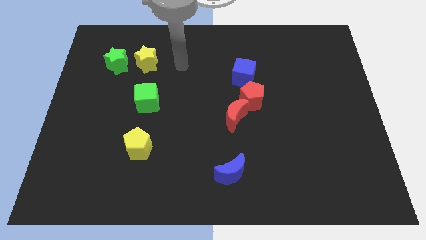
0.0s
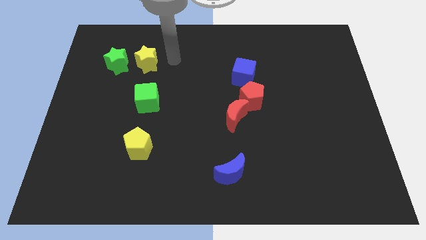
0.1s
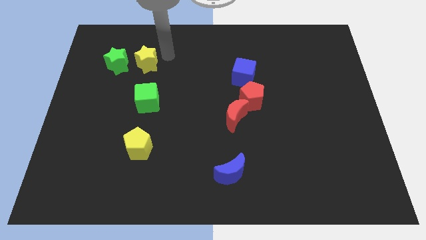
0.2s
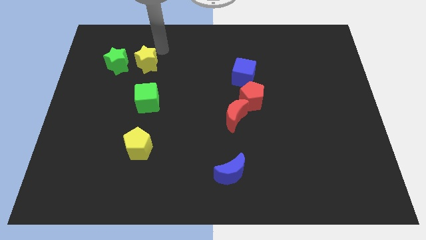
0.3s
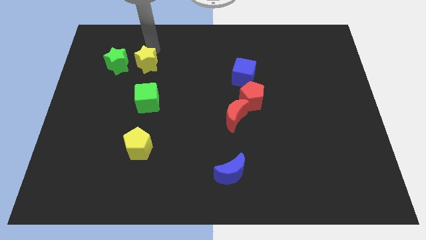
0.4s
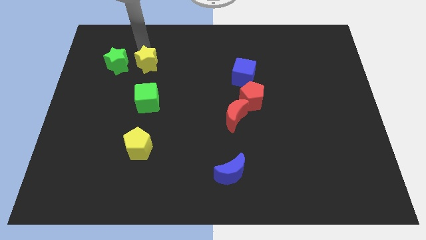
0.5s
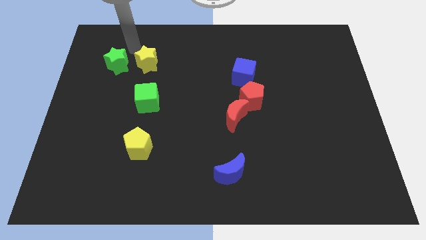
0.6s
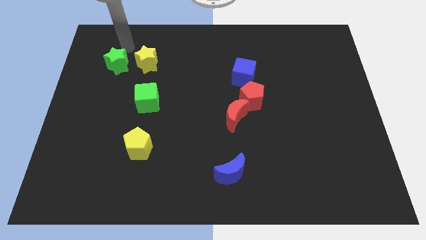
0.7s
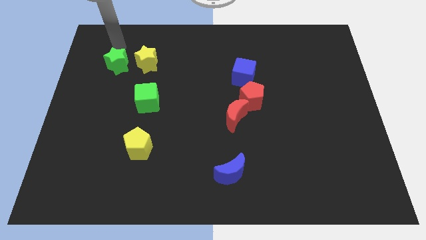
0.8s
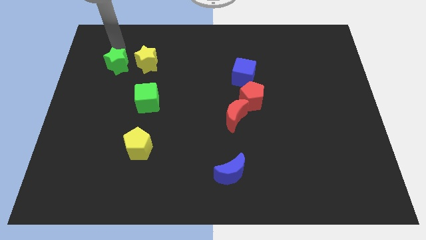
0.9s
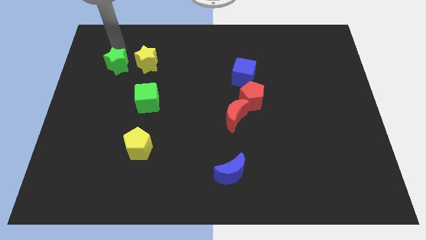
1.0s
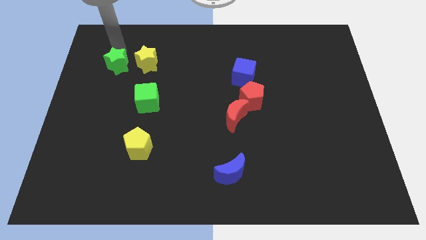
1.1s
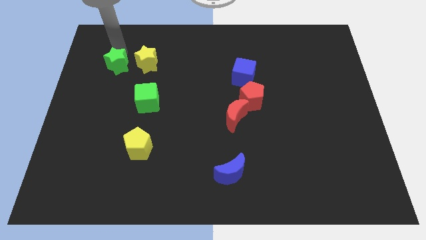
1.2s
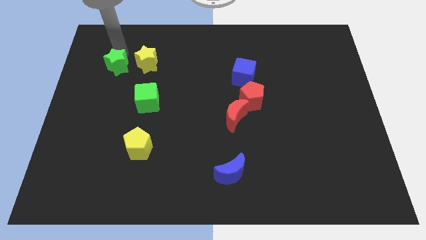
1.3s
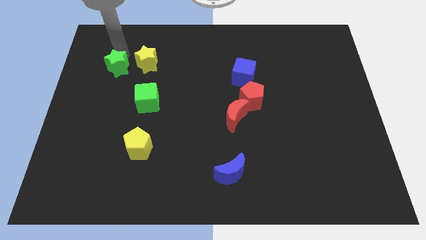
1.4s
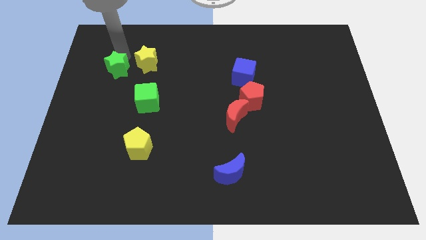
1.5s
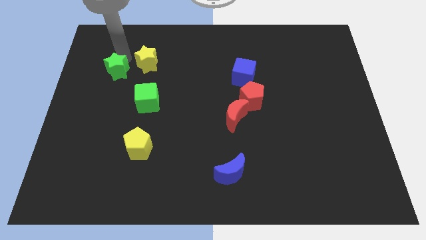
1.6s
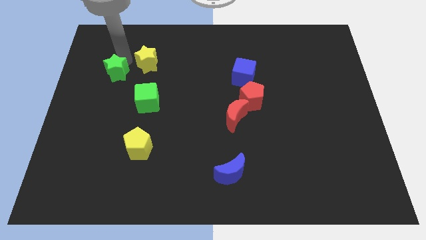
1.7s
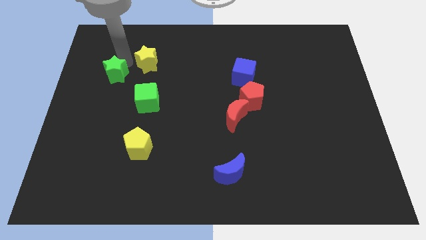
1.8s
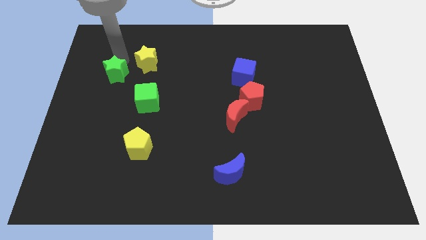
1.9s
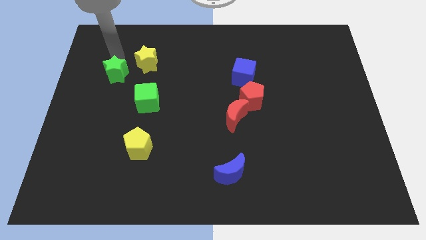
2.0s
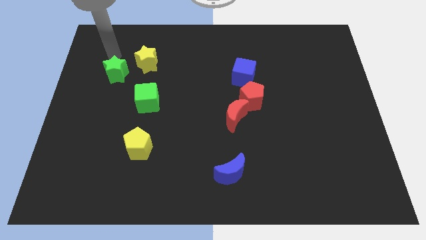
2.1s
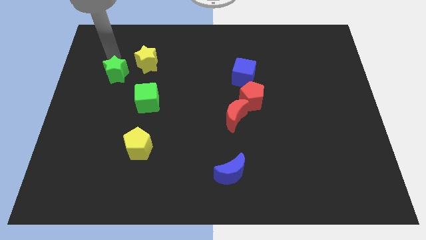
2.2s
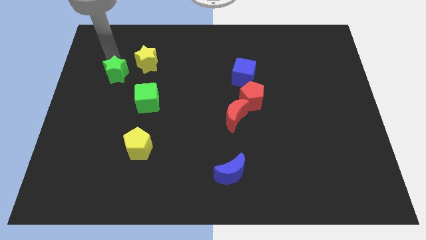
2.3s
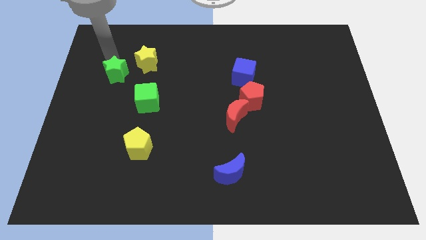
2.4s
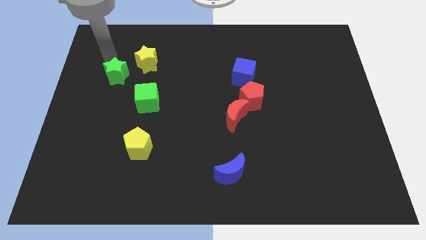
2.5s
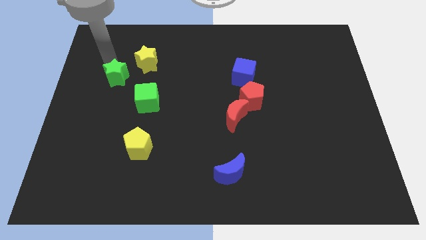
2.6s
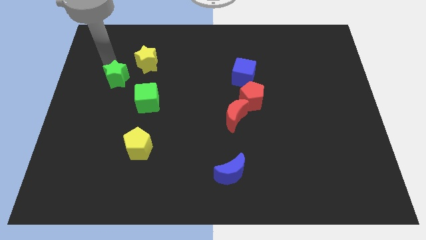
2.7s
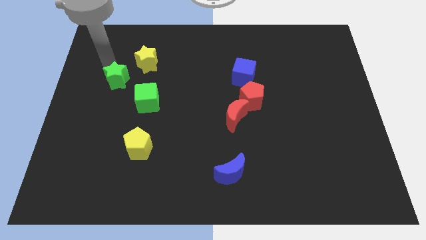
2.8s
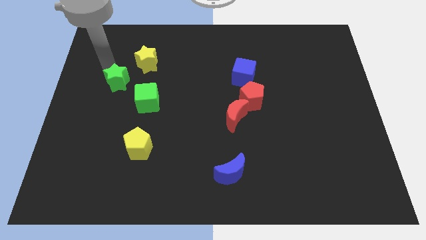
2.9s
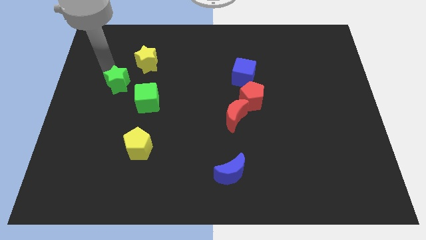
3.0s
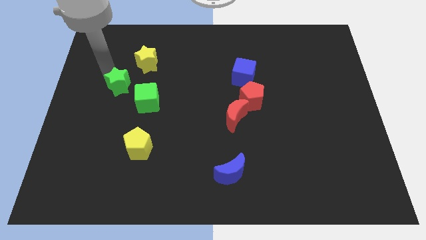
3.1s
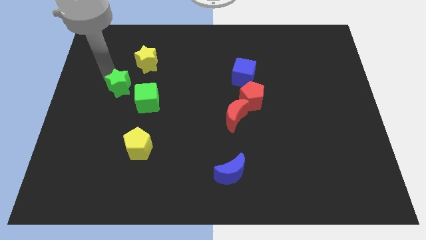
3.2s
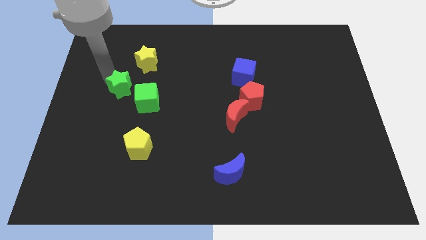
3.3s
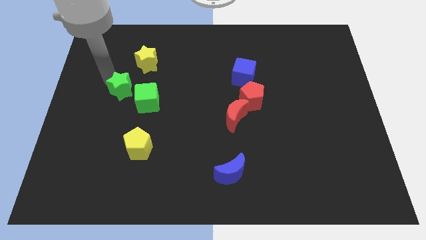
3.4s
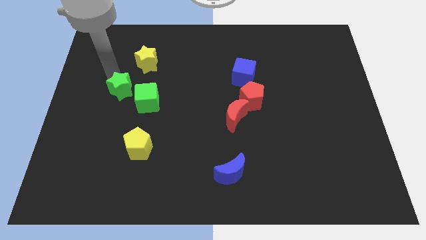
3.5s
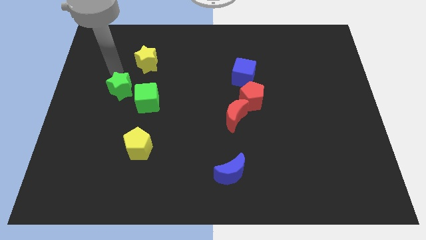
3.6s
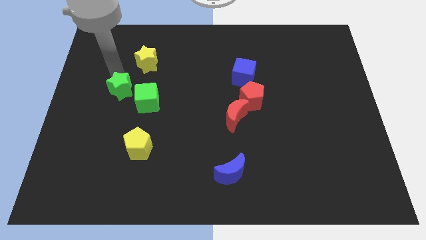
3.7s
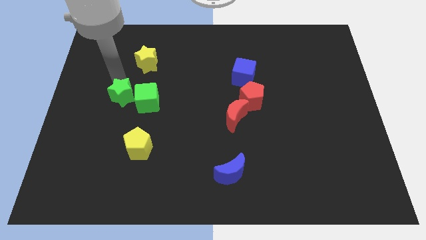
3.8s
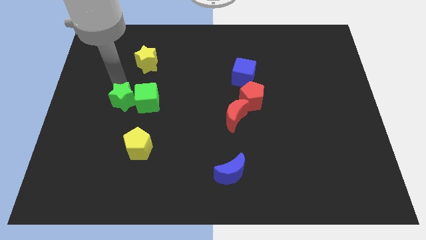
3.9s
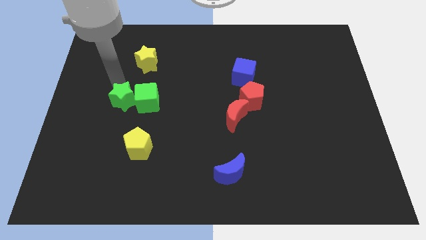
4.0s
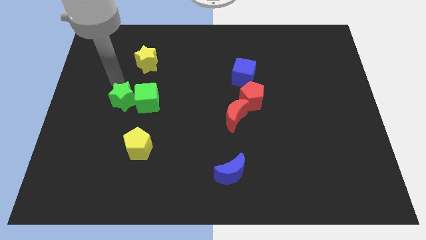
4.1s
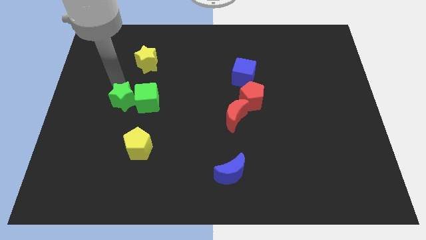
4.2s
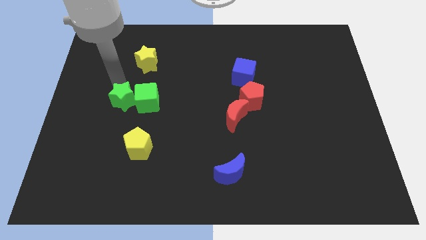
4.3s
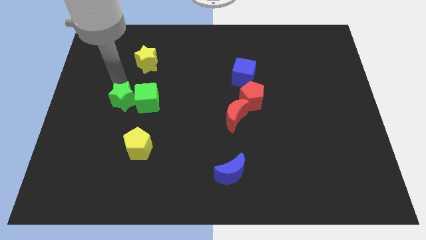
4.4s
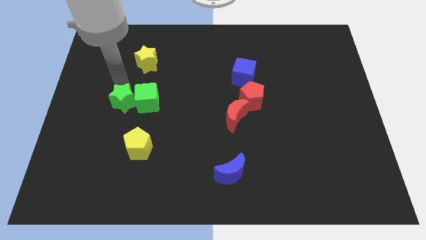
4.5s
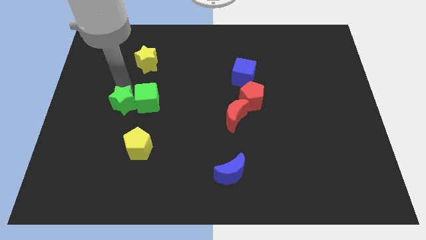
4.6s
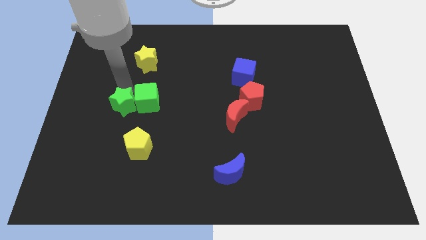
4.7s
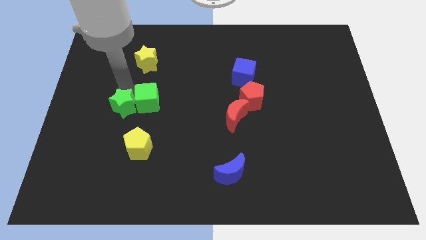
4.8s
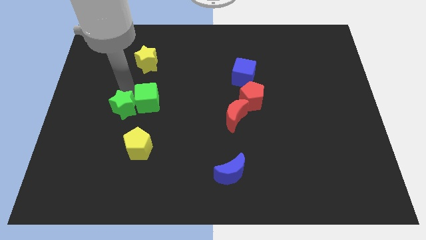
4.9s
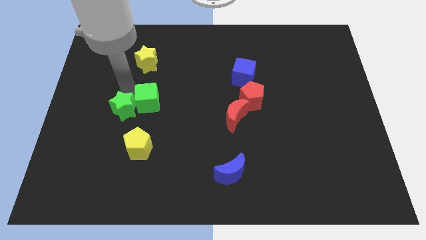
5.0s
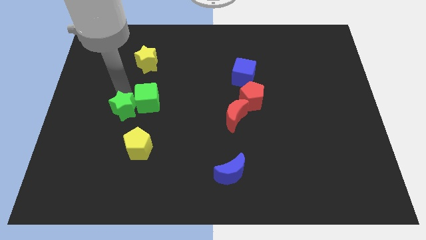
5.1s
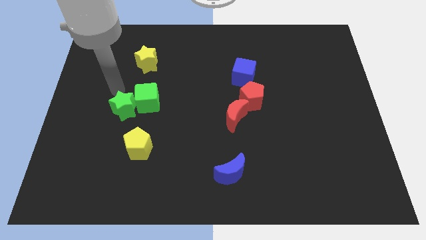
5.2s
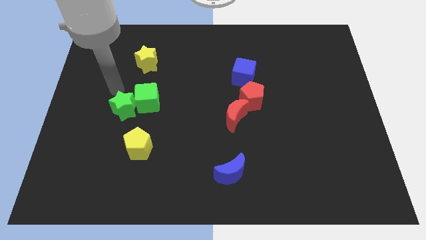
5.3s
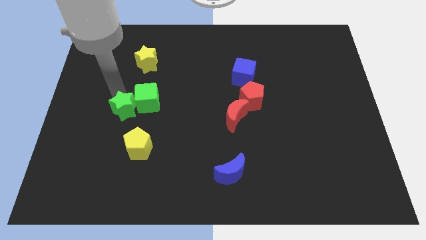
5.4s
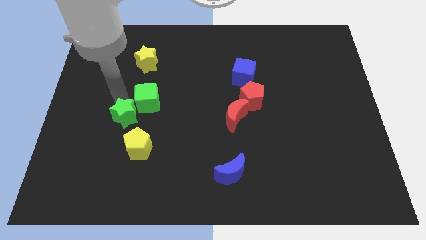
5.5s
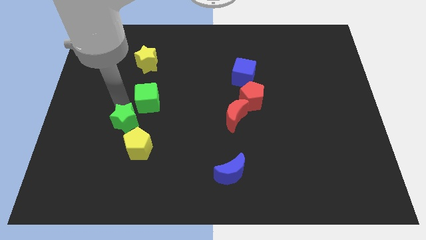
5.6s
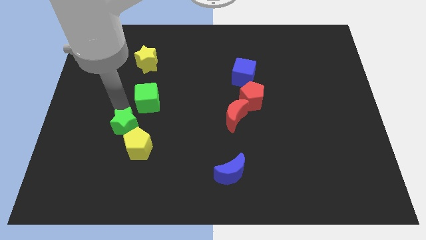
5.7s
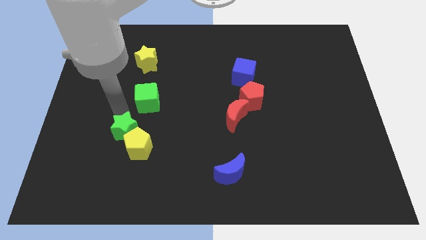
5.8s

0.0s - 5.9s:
push the green star towards the yellow pentagon

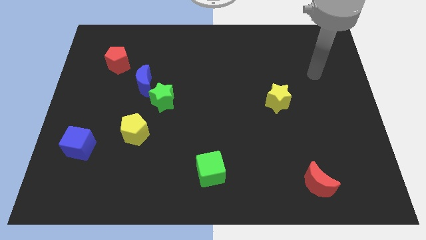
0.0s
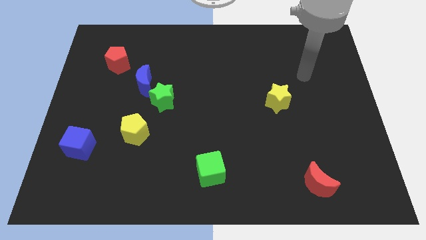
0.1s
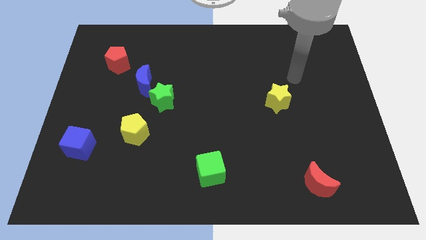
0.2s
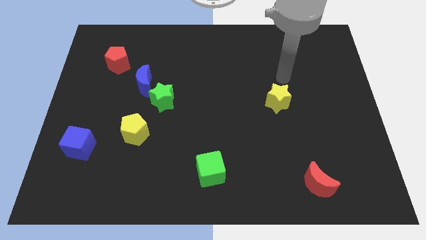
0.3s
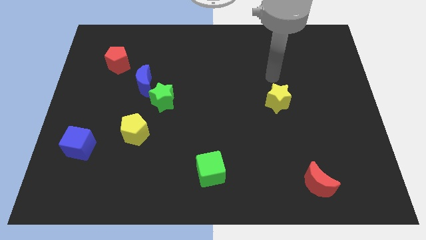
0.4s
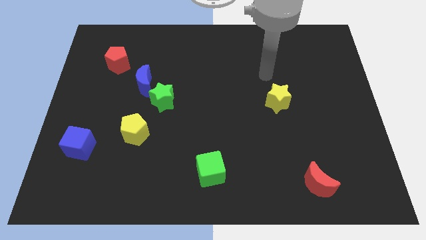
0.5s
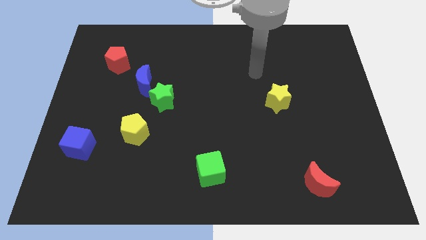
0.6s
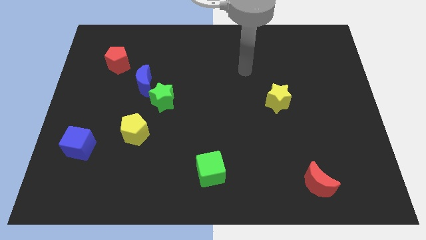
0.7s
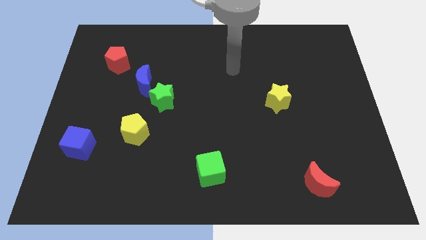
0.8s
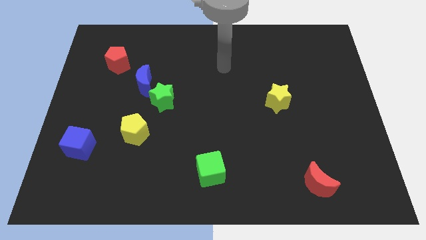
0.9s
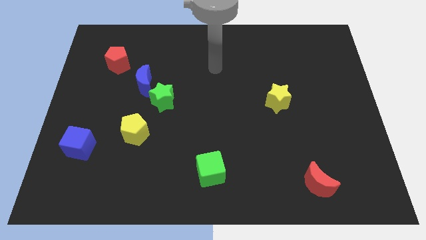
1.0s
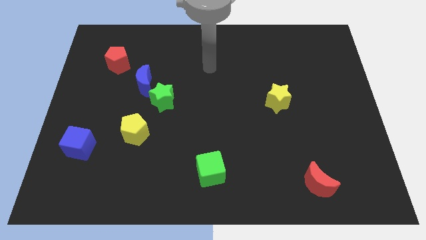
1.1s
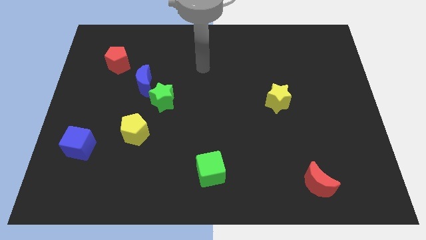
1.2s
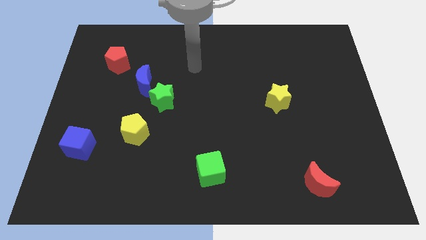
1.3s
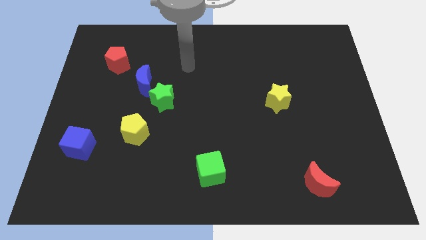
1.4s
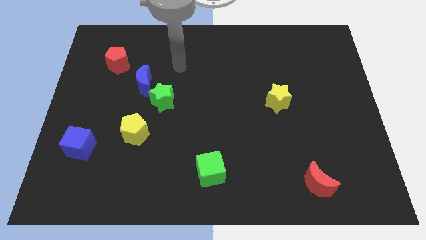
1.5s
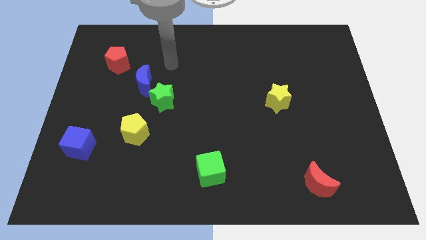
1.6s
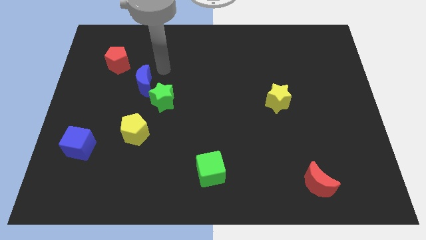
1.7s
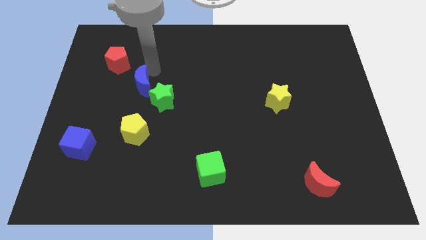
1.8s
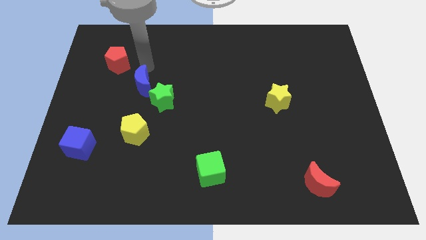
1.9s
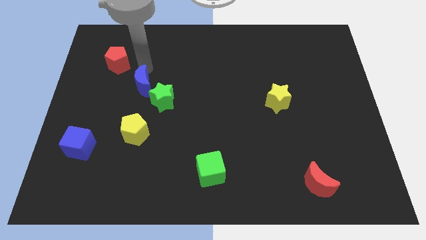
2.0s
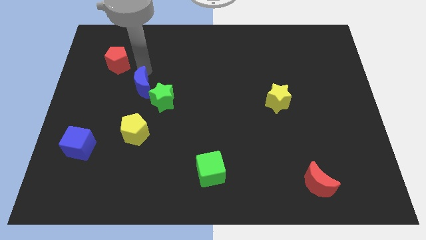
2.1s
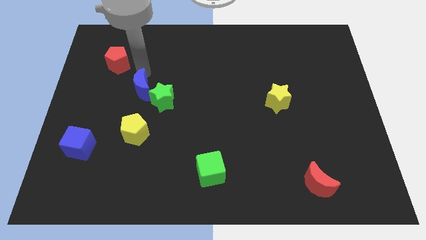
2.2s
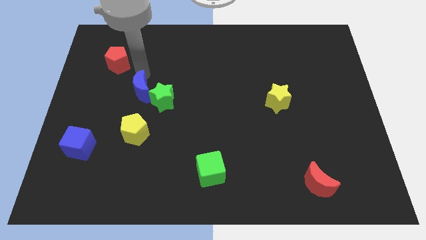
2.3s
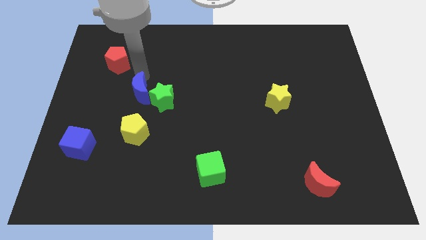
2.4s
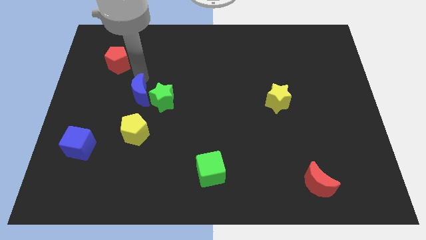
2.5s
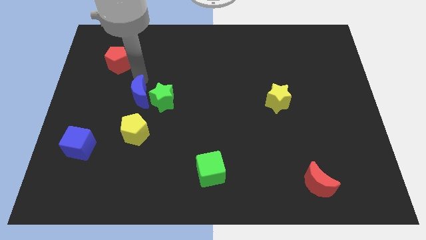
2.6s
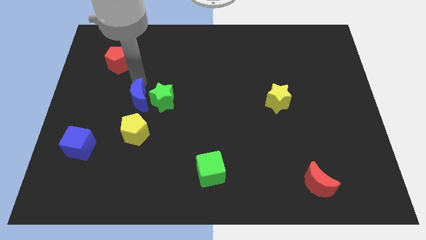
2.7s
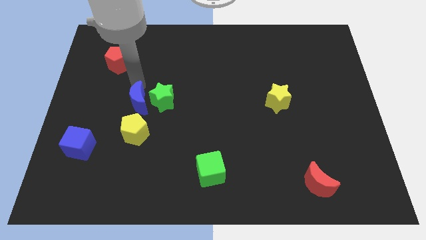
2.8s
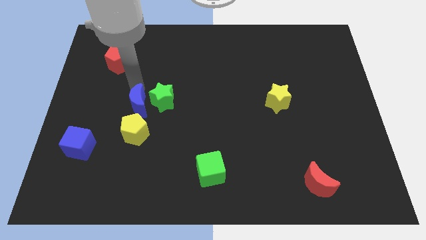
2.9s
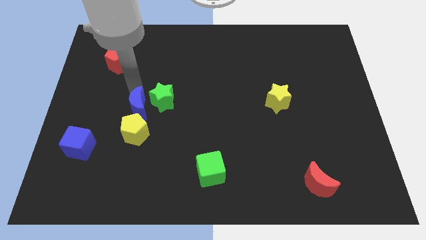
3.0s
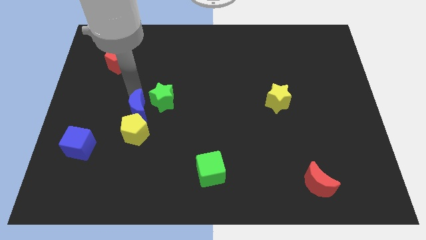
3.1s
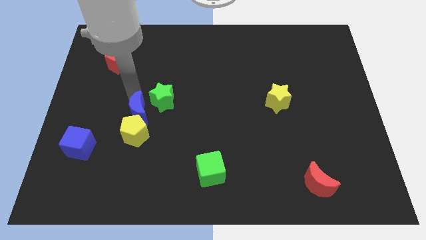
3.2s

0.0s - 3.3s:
move the blue moon close to the yellow pentagon
